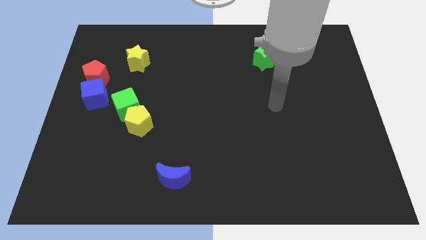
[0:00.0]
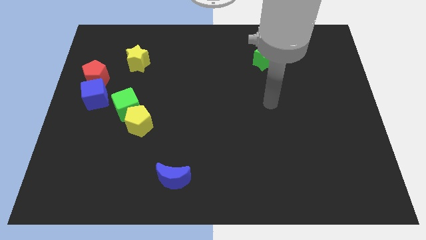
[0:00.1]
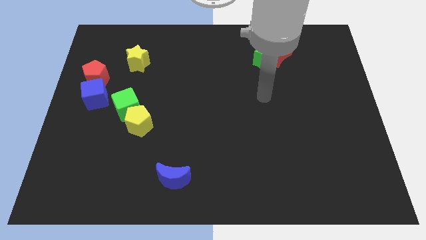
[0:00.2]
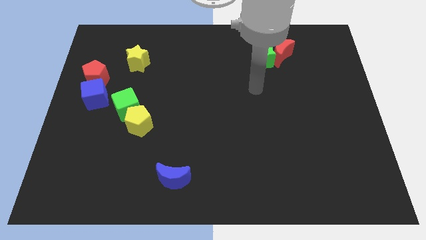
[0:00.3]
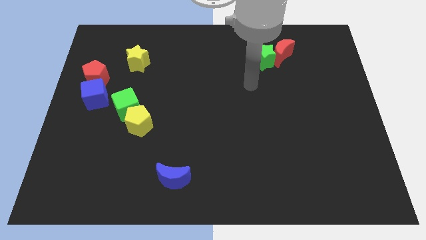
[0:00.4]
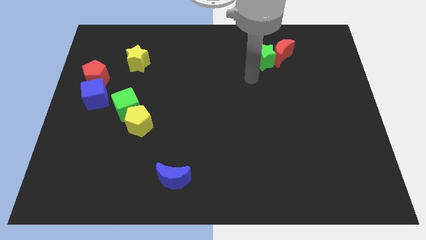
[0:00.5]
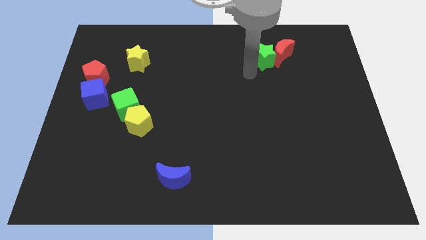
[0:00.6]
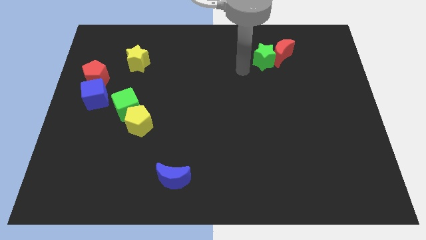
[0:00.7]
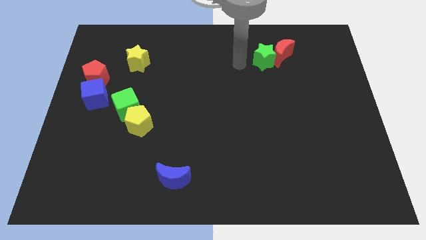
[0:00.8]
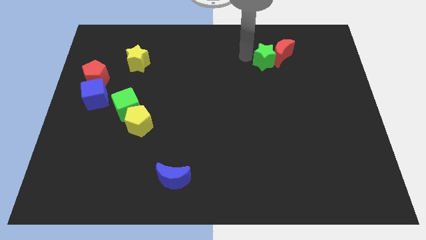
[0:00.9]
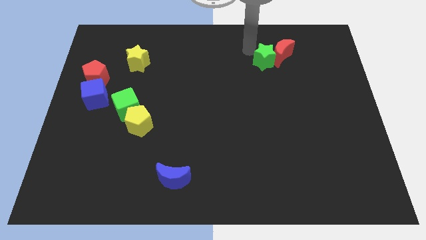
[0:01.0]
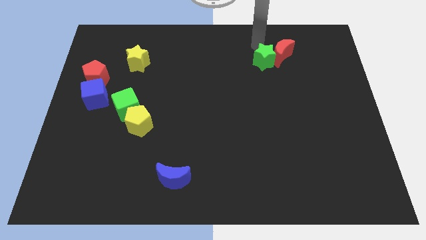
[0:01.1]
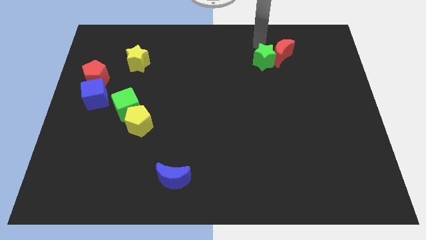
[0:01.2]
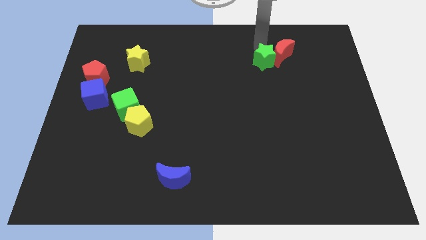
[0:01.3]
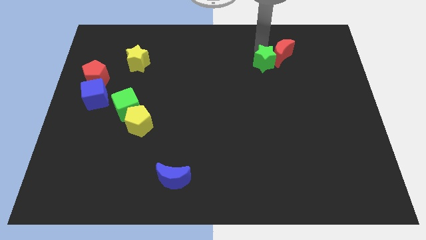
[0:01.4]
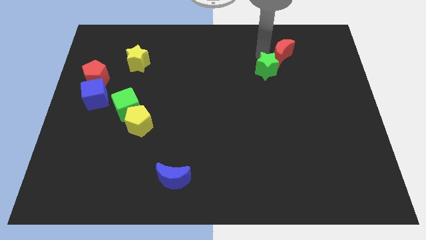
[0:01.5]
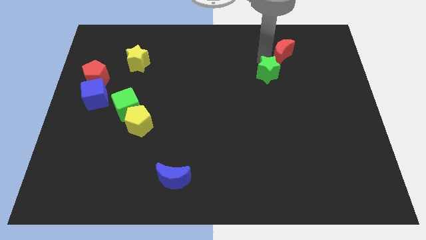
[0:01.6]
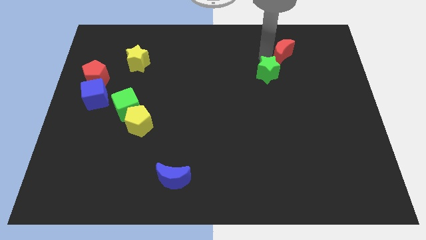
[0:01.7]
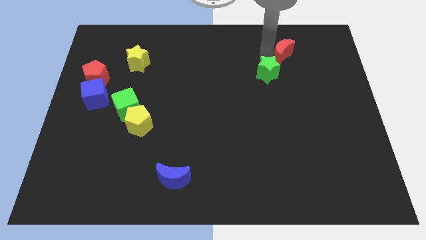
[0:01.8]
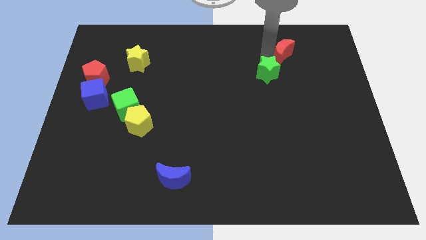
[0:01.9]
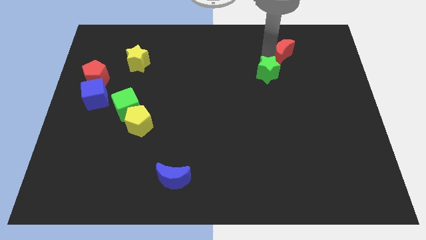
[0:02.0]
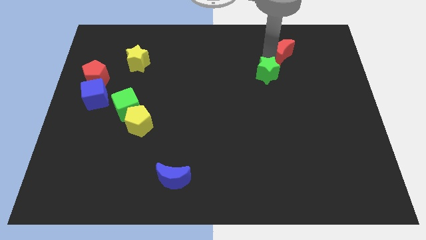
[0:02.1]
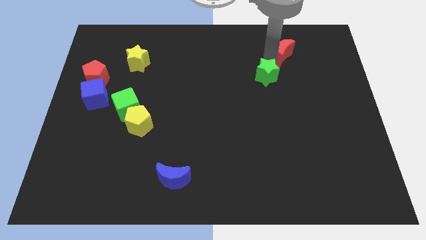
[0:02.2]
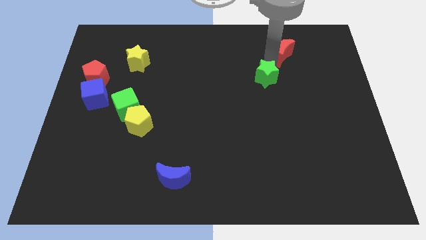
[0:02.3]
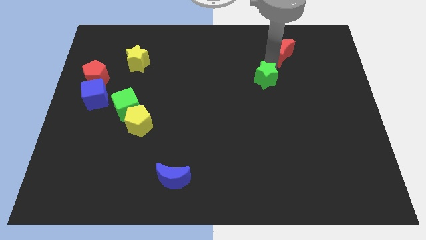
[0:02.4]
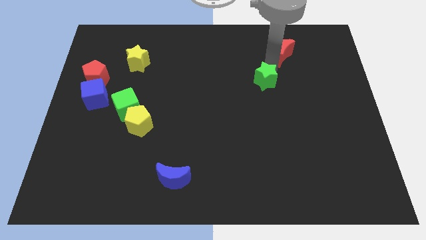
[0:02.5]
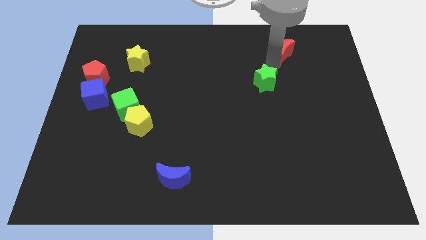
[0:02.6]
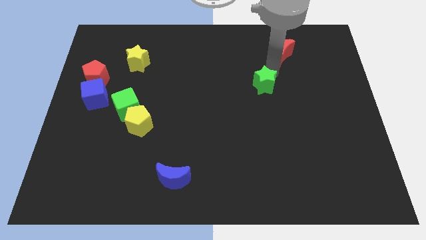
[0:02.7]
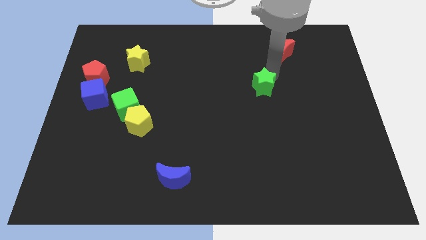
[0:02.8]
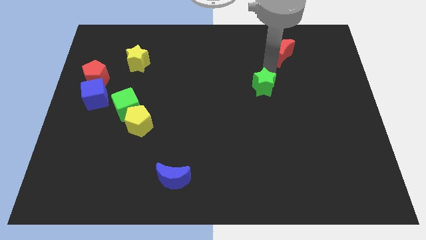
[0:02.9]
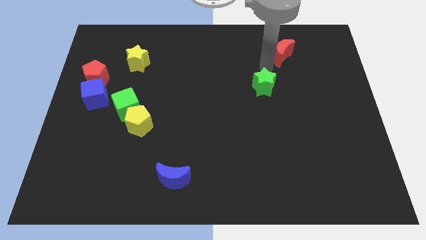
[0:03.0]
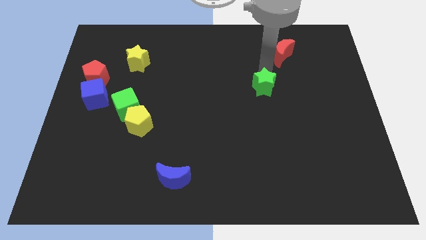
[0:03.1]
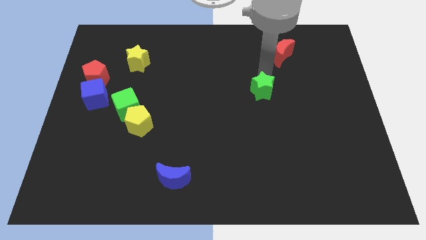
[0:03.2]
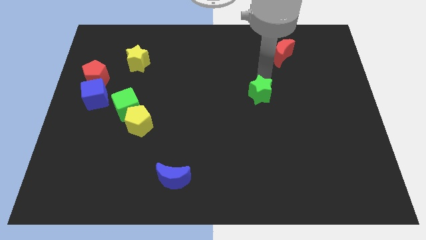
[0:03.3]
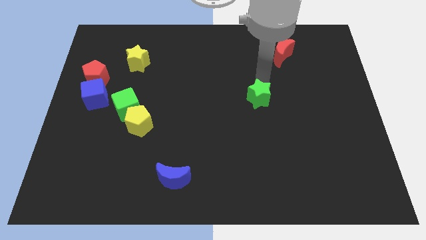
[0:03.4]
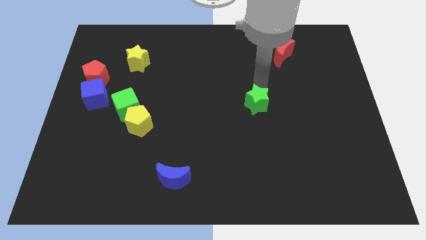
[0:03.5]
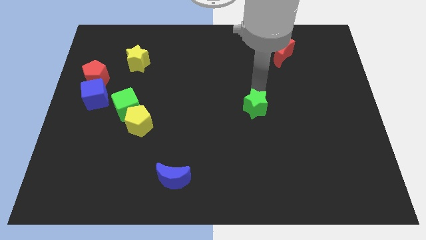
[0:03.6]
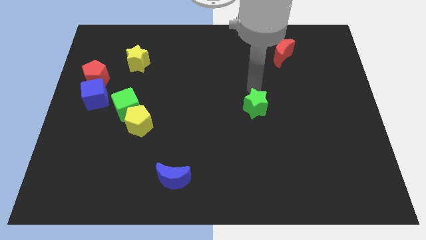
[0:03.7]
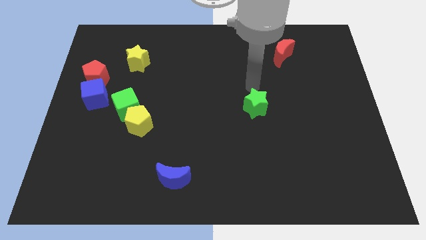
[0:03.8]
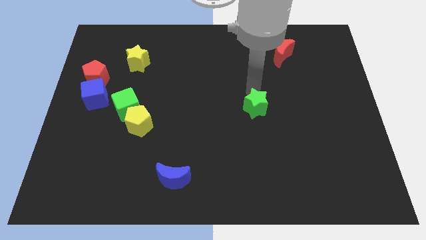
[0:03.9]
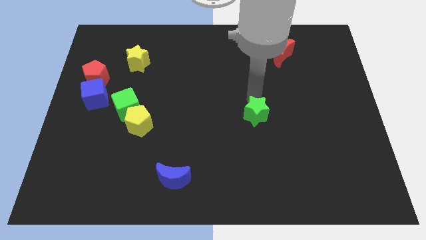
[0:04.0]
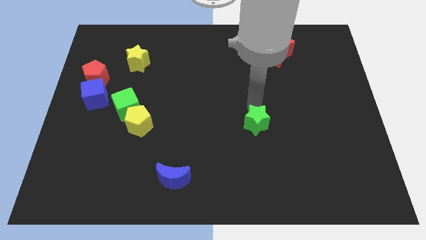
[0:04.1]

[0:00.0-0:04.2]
slide the green star down

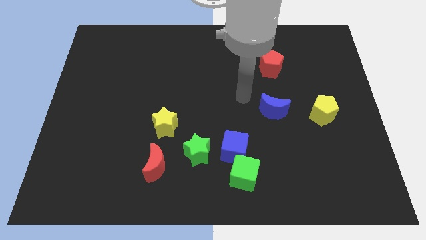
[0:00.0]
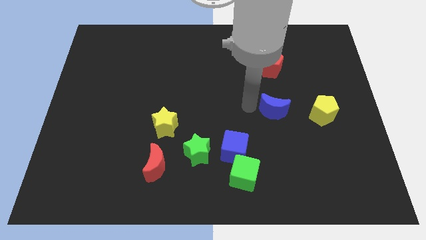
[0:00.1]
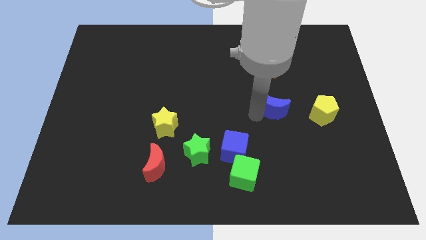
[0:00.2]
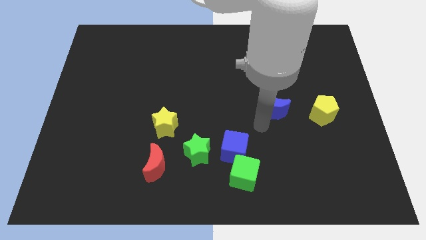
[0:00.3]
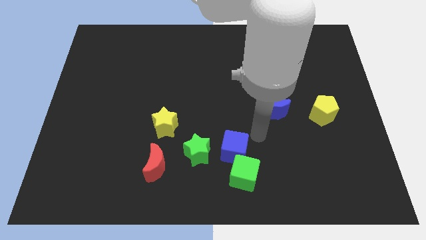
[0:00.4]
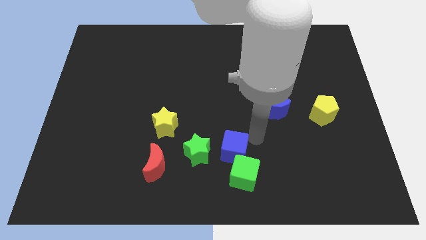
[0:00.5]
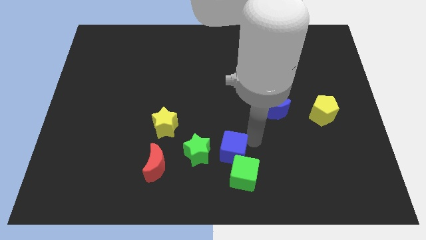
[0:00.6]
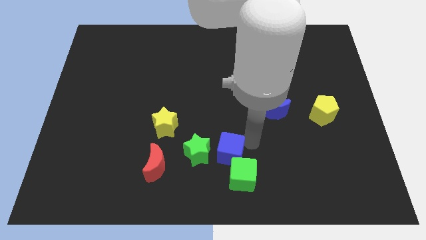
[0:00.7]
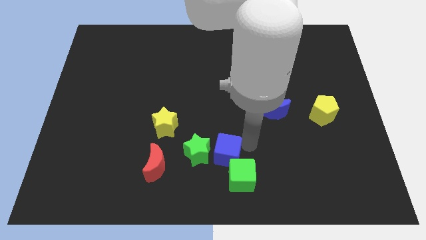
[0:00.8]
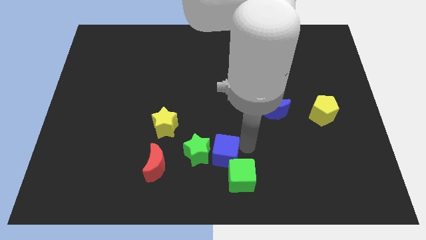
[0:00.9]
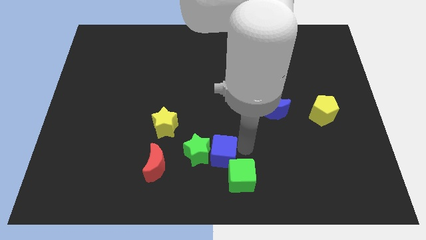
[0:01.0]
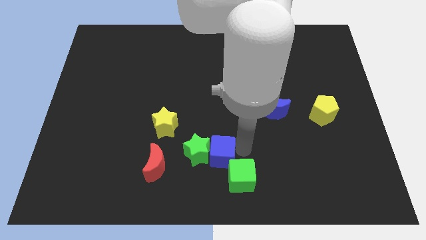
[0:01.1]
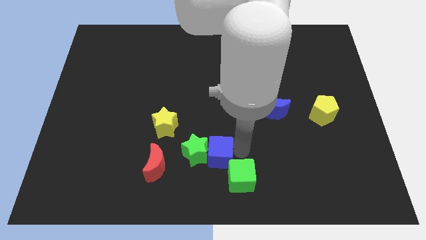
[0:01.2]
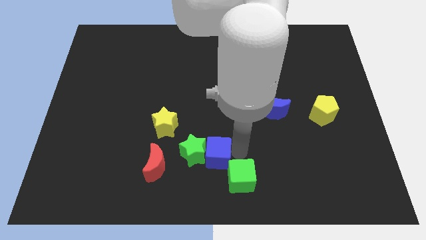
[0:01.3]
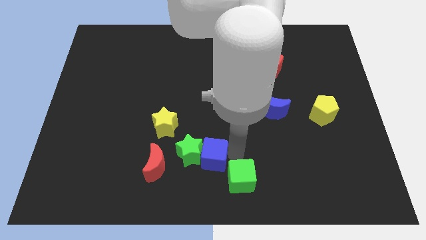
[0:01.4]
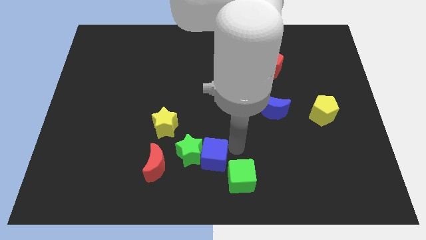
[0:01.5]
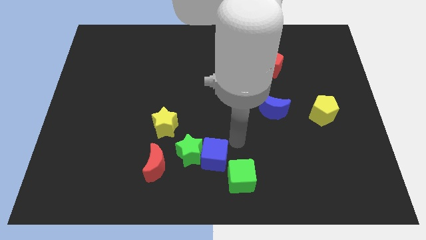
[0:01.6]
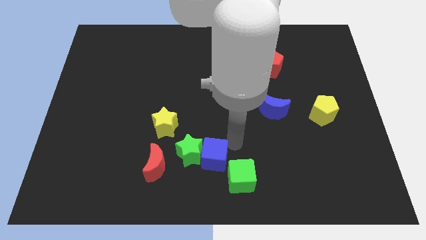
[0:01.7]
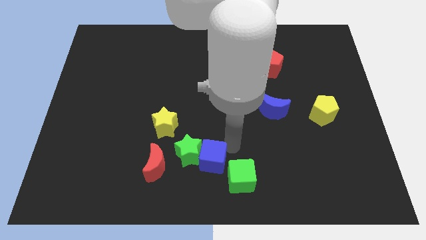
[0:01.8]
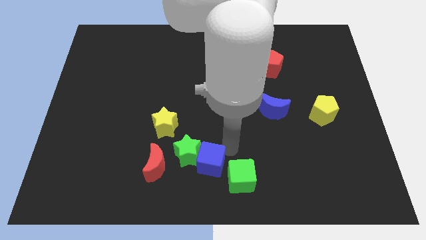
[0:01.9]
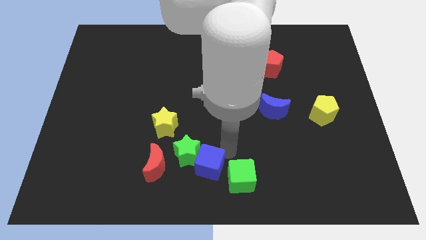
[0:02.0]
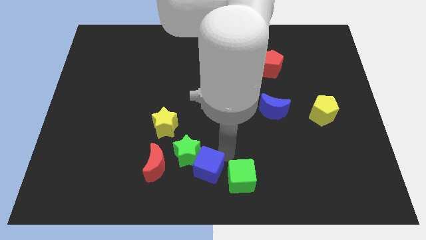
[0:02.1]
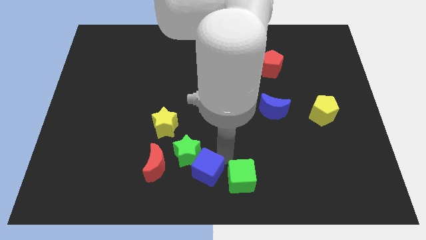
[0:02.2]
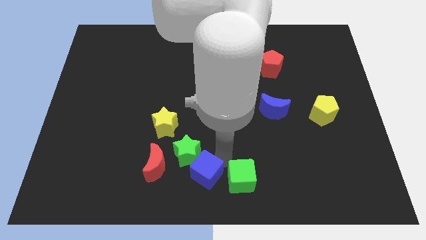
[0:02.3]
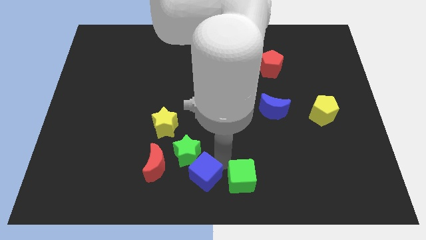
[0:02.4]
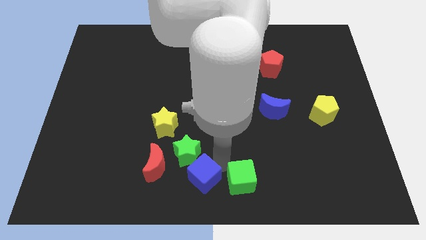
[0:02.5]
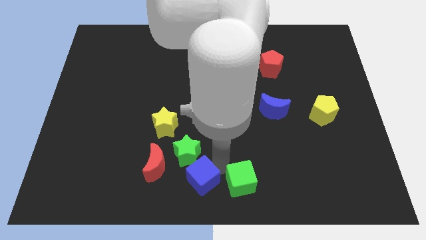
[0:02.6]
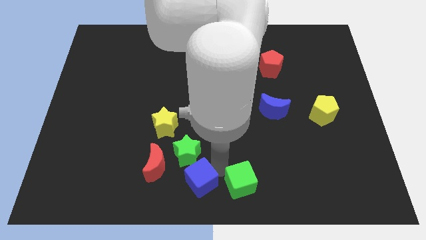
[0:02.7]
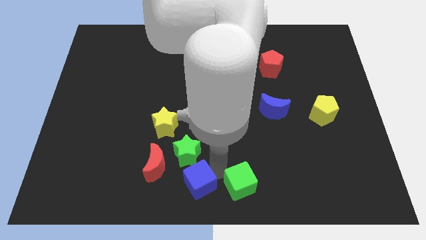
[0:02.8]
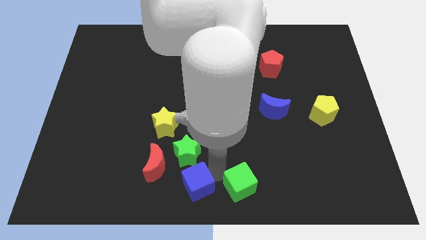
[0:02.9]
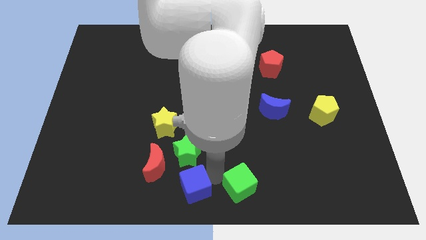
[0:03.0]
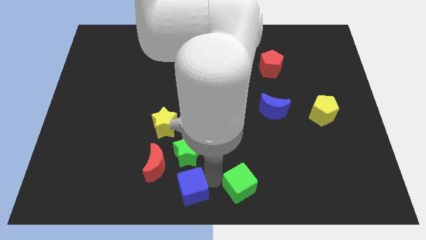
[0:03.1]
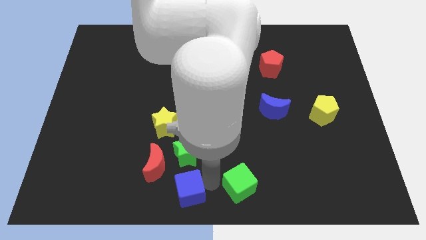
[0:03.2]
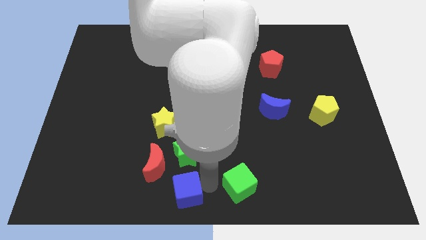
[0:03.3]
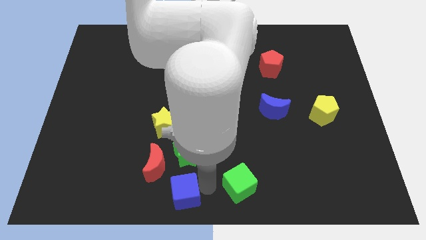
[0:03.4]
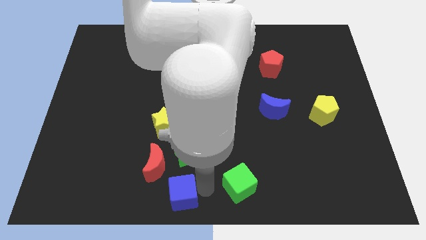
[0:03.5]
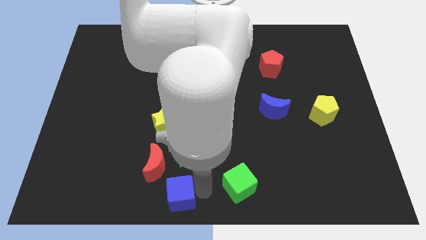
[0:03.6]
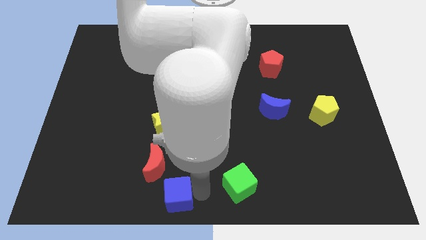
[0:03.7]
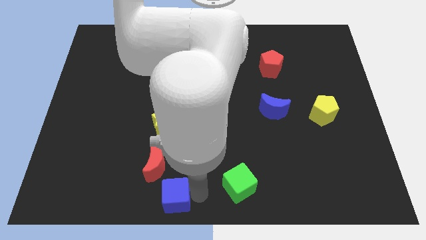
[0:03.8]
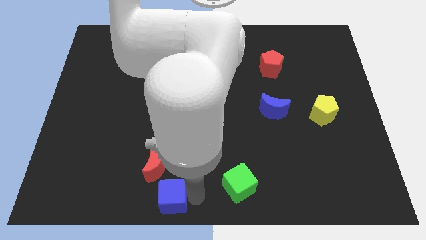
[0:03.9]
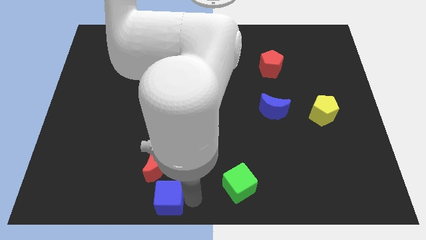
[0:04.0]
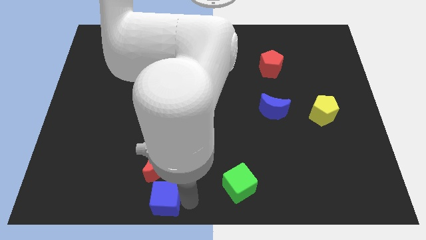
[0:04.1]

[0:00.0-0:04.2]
move the blue cube a little bit left
